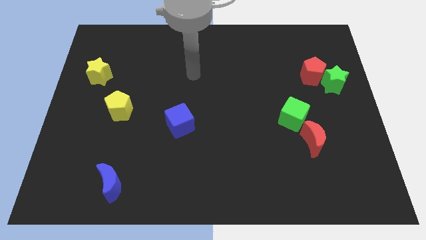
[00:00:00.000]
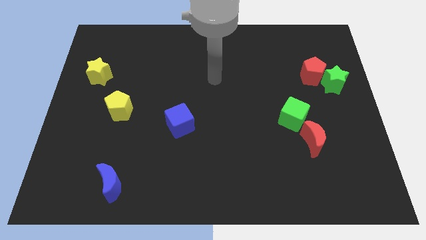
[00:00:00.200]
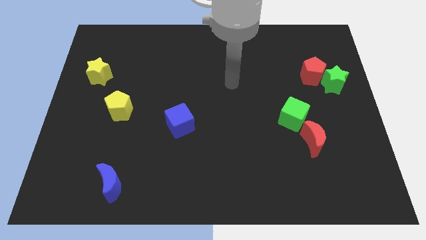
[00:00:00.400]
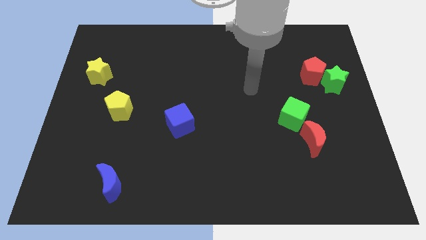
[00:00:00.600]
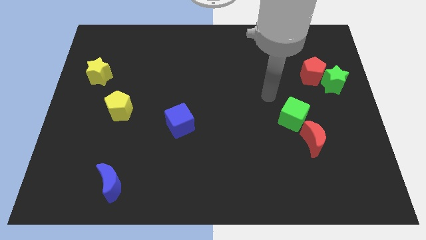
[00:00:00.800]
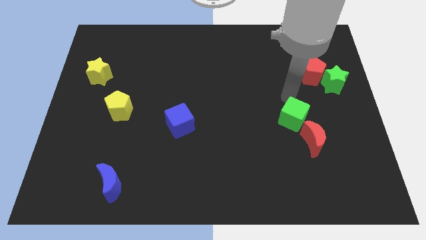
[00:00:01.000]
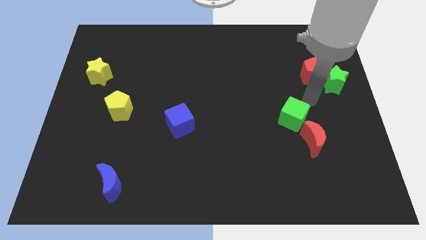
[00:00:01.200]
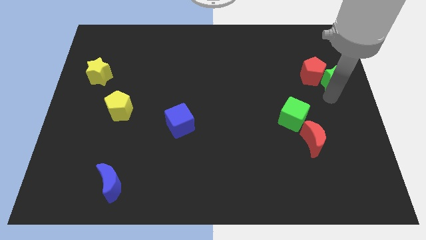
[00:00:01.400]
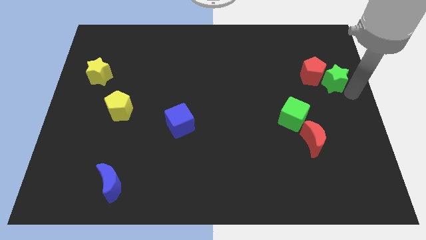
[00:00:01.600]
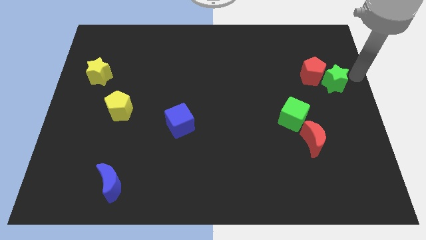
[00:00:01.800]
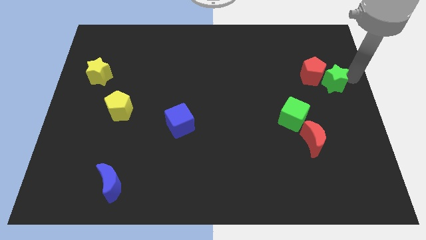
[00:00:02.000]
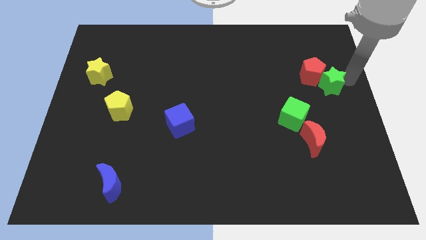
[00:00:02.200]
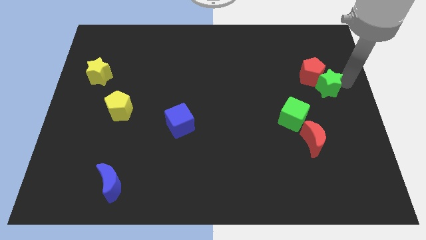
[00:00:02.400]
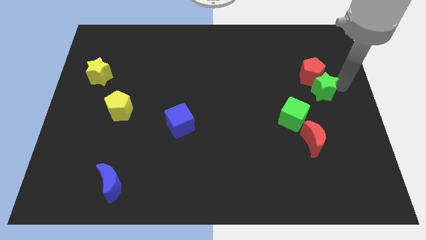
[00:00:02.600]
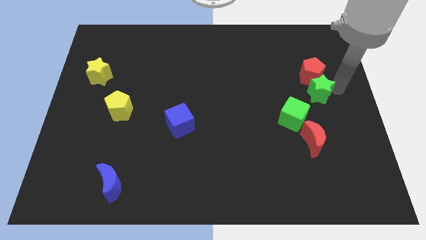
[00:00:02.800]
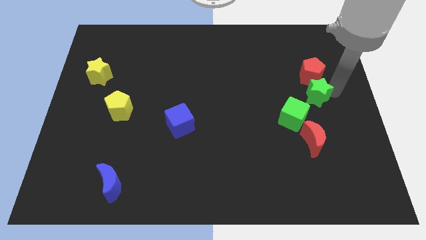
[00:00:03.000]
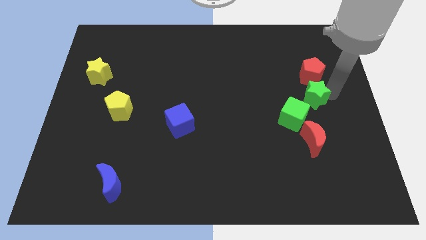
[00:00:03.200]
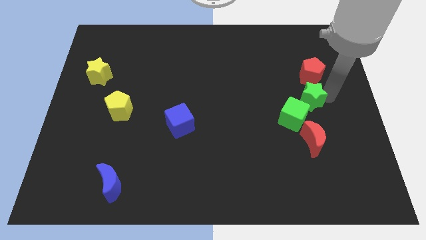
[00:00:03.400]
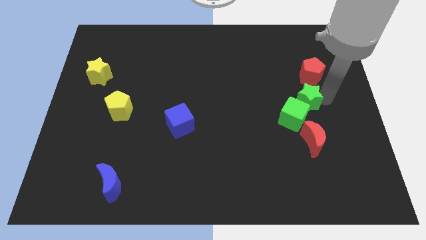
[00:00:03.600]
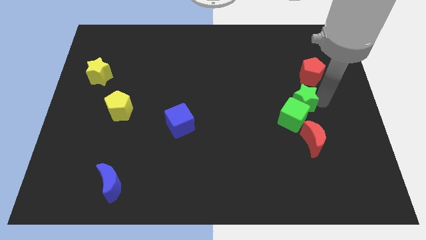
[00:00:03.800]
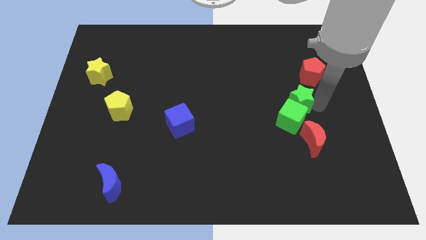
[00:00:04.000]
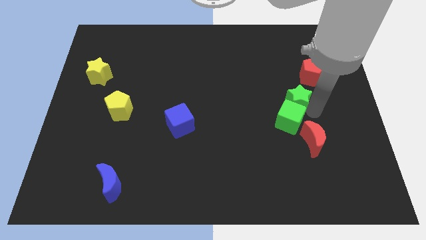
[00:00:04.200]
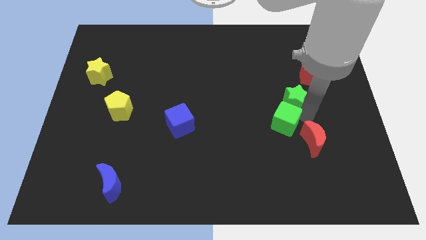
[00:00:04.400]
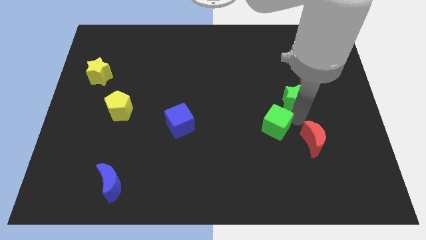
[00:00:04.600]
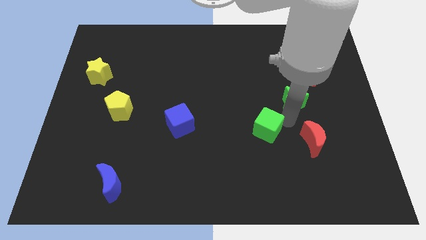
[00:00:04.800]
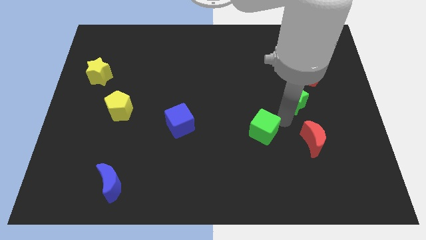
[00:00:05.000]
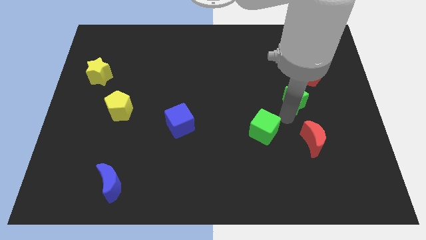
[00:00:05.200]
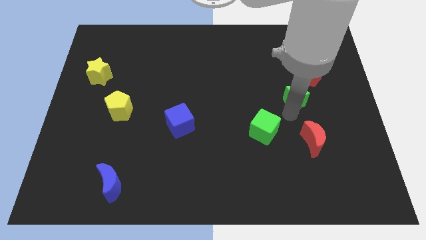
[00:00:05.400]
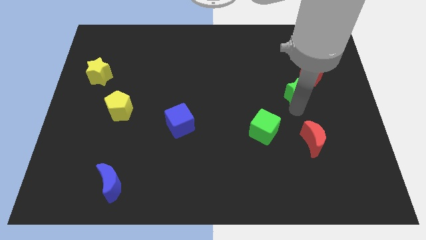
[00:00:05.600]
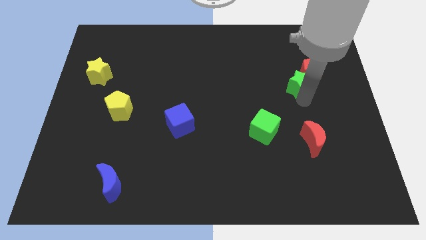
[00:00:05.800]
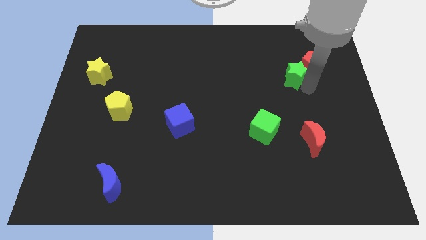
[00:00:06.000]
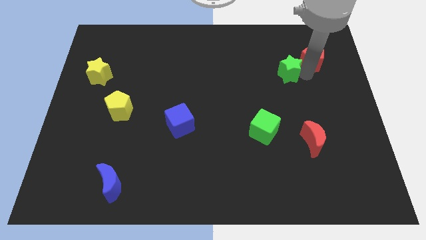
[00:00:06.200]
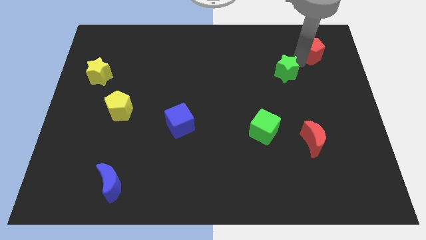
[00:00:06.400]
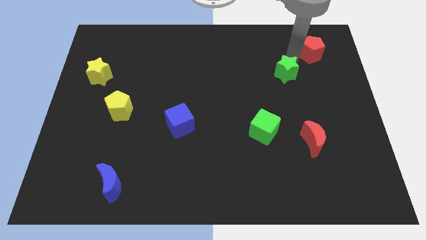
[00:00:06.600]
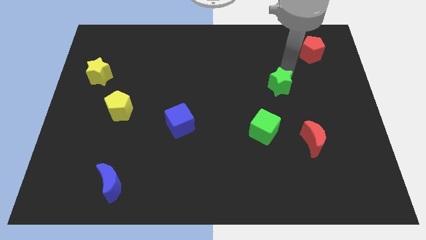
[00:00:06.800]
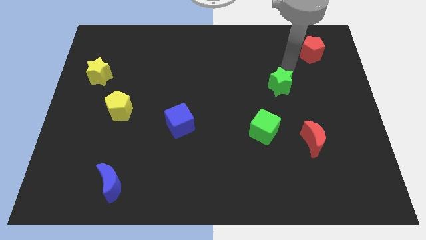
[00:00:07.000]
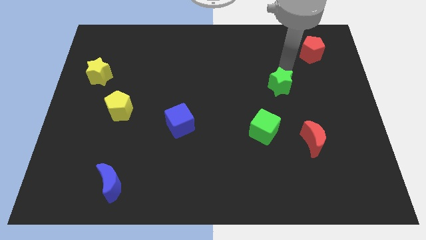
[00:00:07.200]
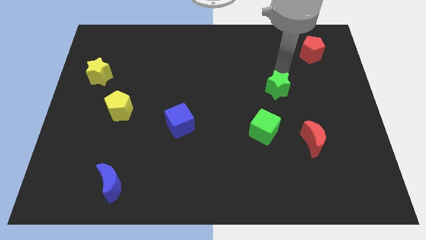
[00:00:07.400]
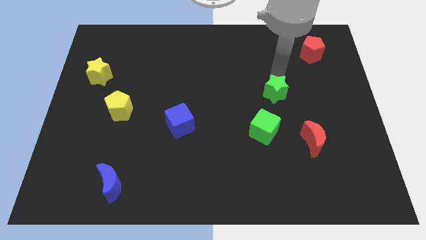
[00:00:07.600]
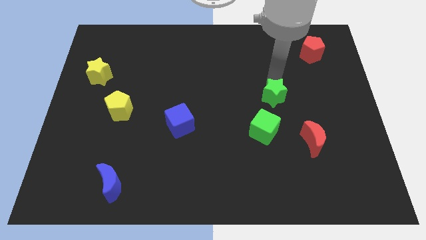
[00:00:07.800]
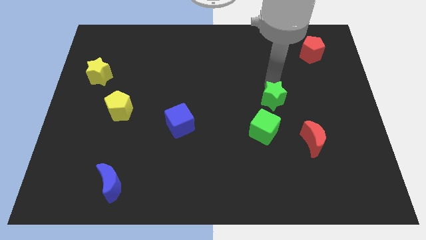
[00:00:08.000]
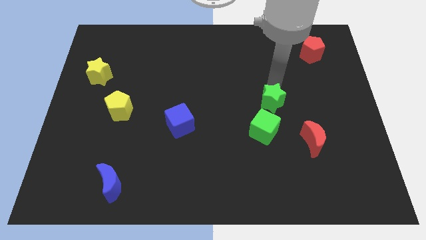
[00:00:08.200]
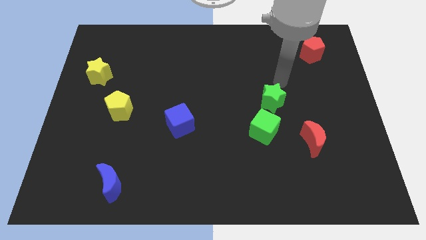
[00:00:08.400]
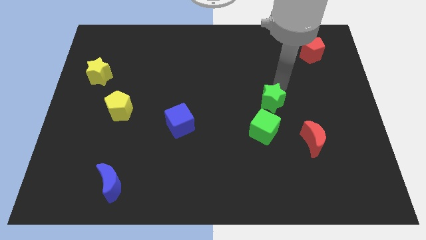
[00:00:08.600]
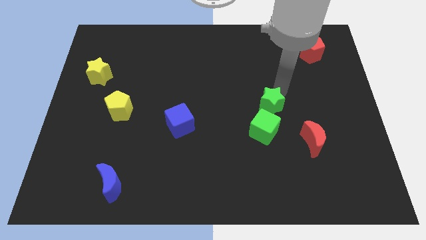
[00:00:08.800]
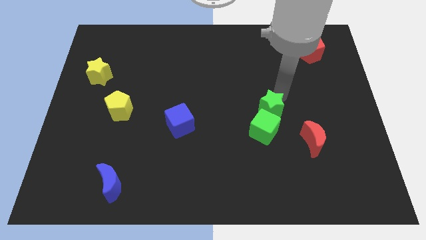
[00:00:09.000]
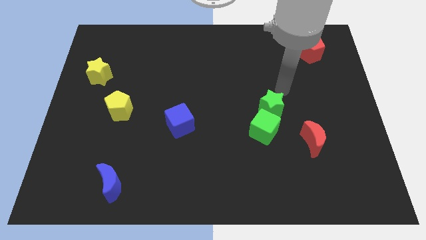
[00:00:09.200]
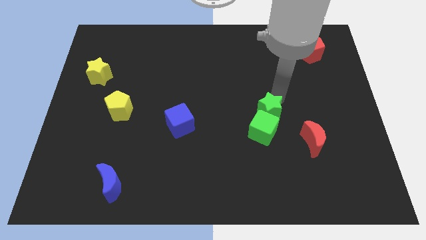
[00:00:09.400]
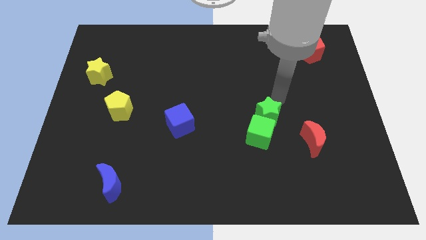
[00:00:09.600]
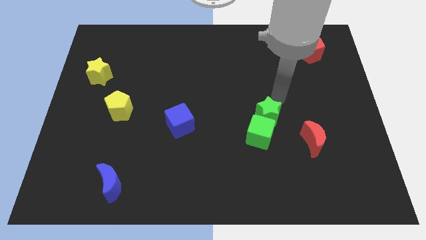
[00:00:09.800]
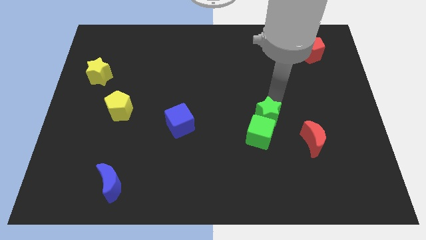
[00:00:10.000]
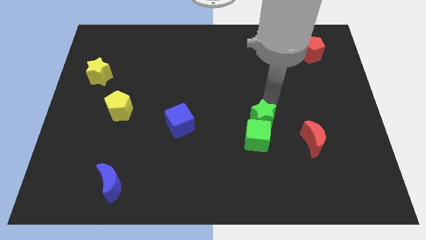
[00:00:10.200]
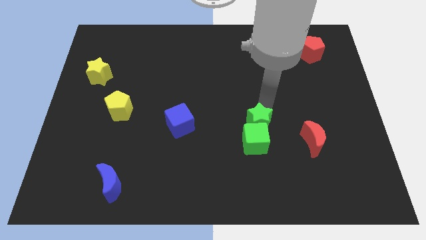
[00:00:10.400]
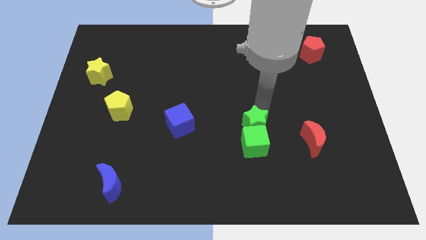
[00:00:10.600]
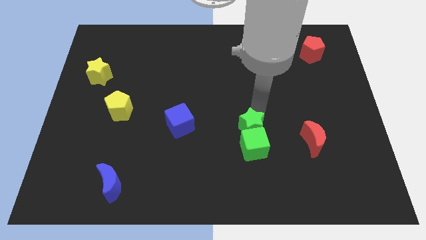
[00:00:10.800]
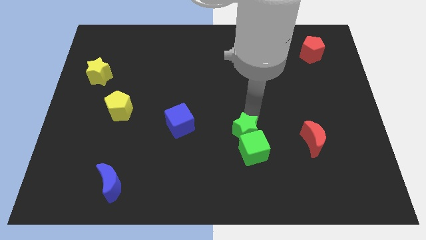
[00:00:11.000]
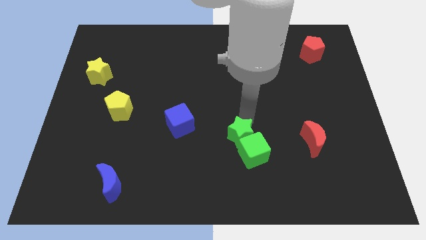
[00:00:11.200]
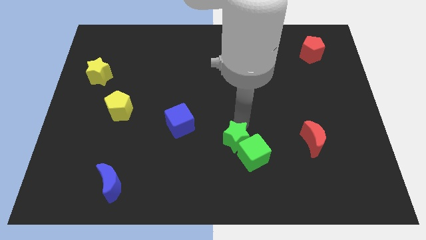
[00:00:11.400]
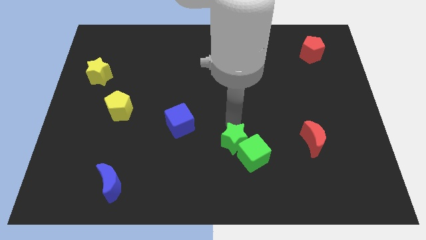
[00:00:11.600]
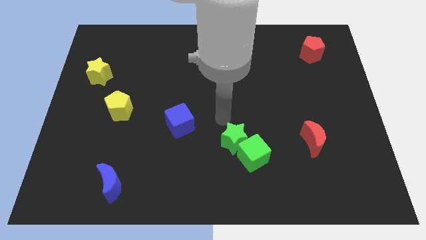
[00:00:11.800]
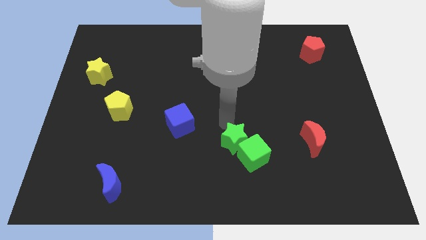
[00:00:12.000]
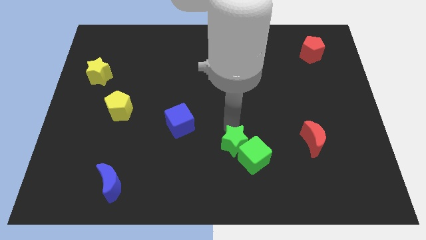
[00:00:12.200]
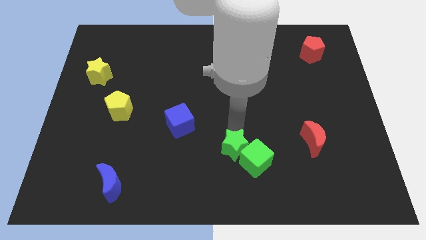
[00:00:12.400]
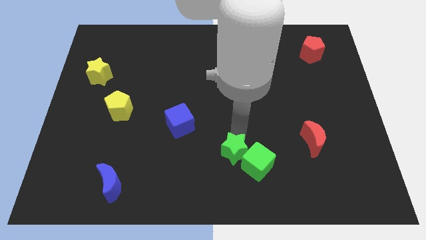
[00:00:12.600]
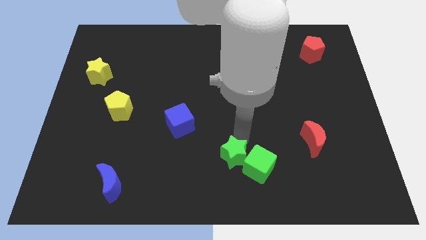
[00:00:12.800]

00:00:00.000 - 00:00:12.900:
push the green star to the bottom side
